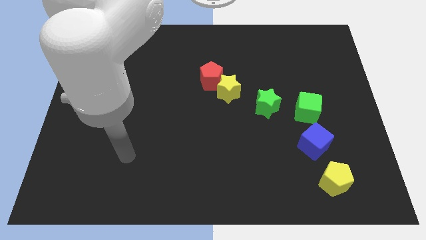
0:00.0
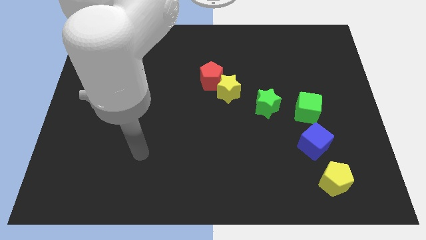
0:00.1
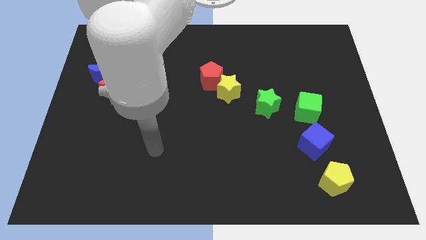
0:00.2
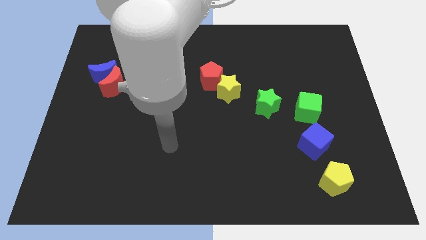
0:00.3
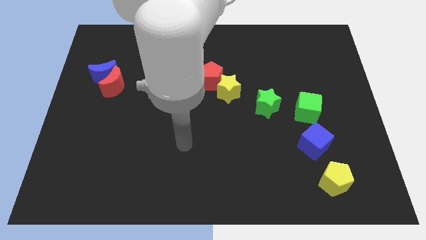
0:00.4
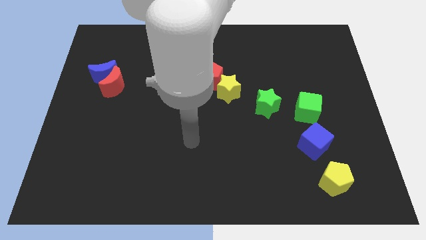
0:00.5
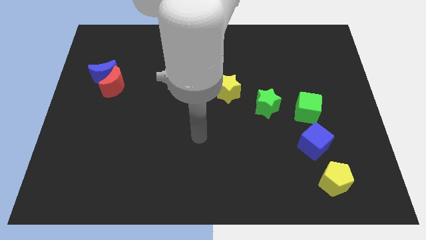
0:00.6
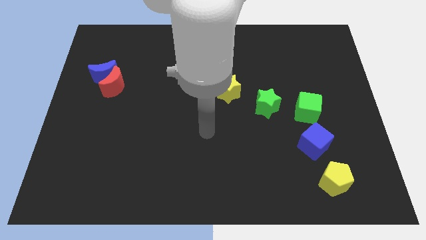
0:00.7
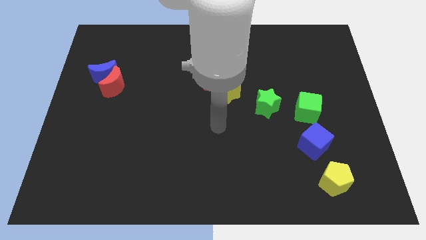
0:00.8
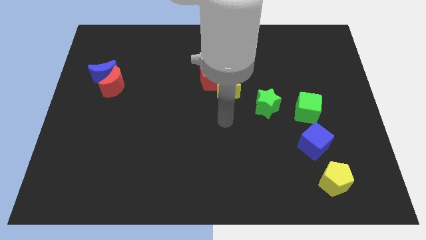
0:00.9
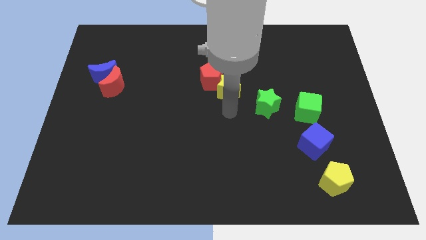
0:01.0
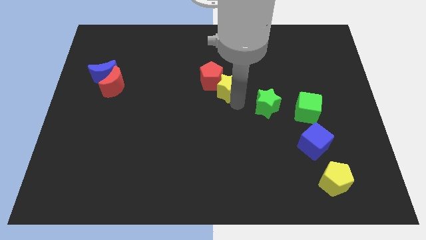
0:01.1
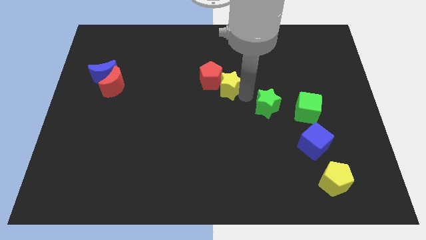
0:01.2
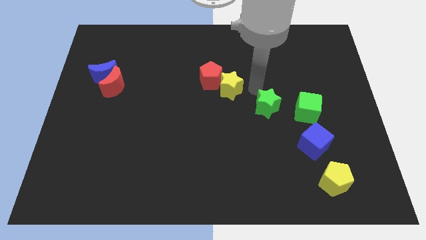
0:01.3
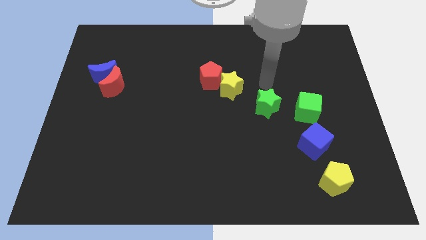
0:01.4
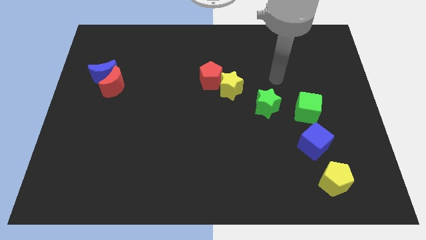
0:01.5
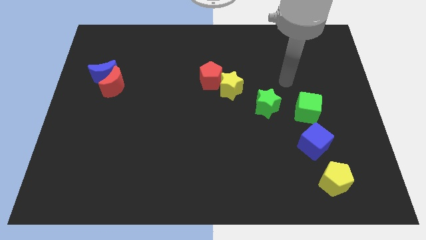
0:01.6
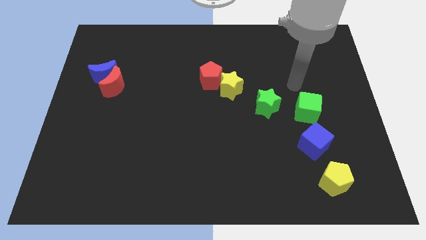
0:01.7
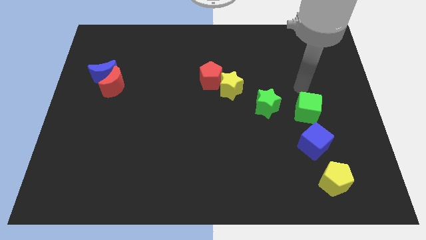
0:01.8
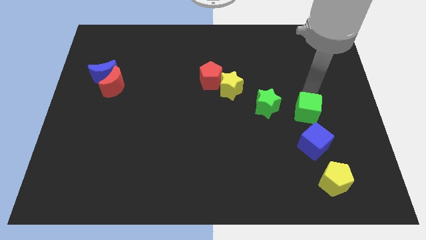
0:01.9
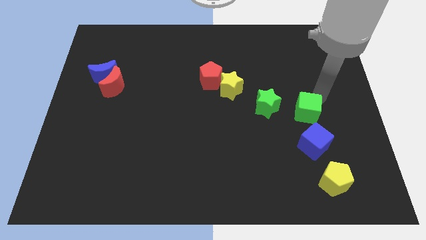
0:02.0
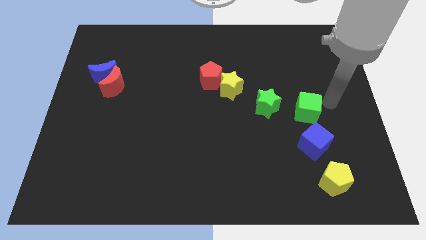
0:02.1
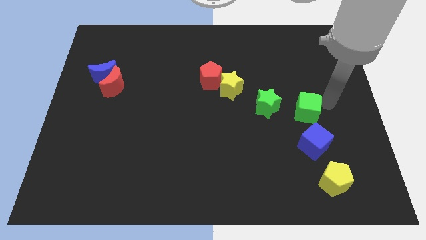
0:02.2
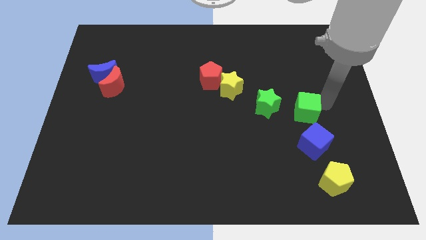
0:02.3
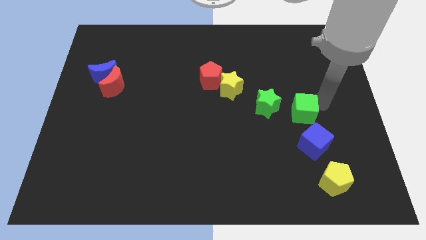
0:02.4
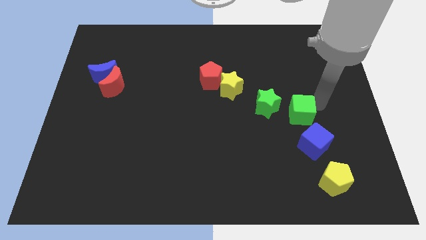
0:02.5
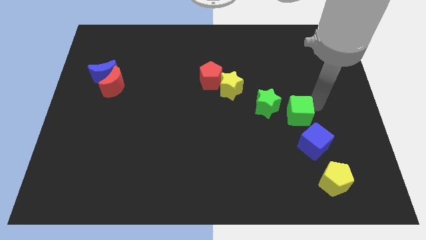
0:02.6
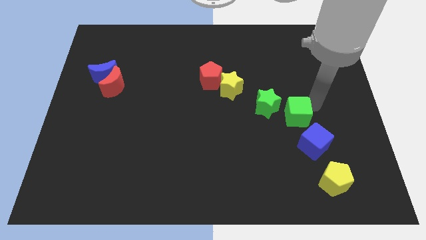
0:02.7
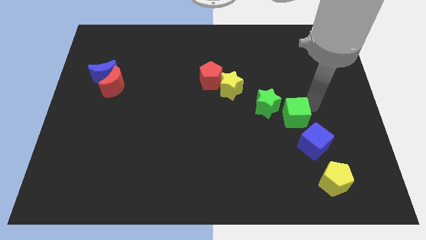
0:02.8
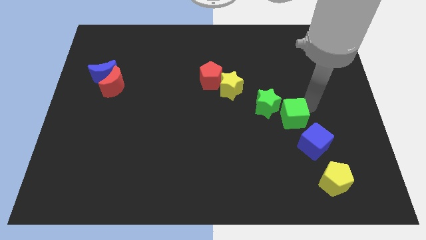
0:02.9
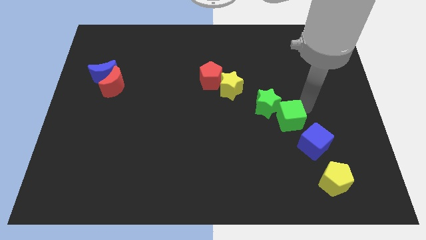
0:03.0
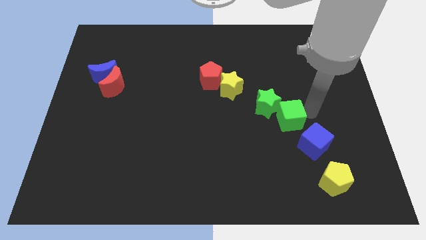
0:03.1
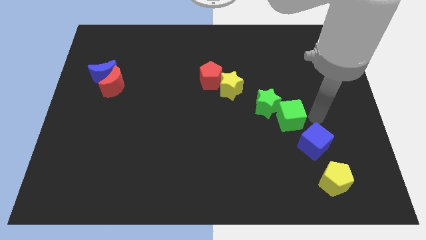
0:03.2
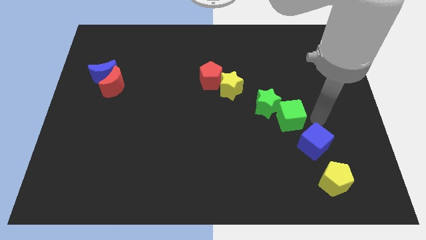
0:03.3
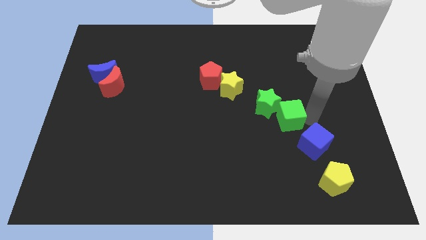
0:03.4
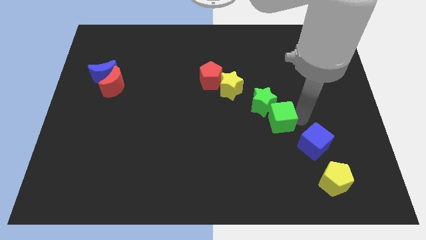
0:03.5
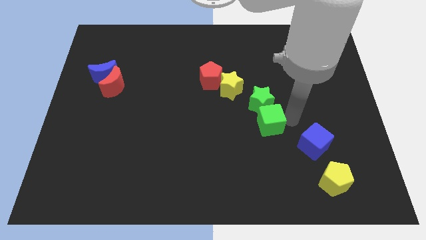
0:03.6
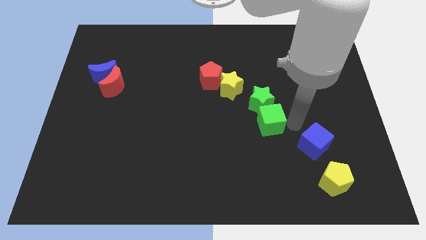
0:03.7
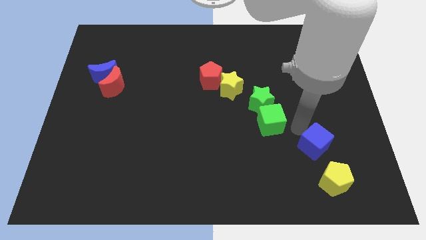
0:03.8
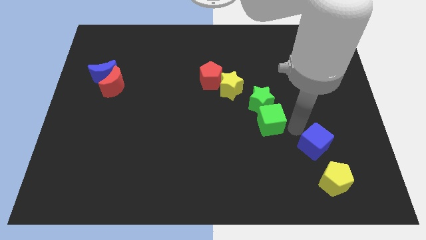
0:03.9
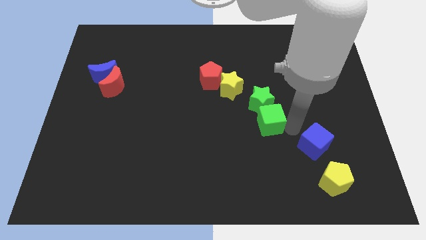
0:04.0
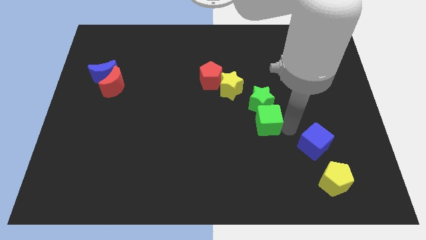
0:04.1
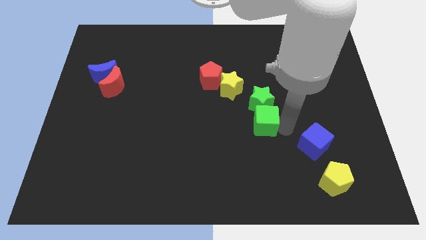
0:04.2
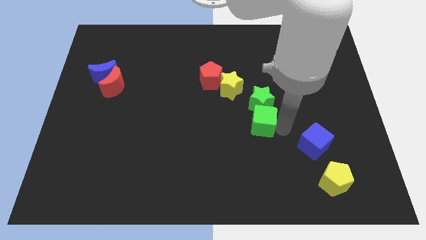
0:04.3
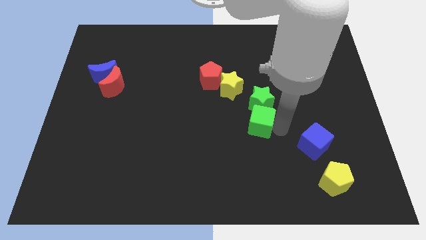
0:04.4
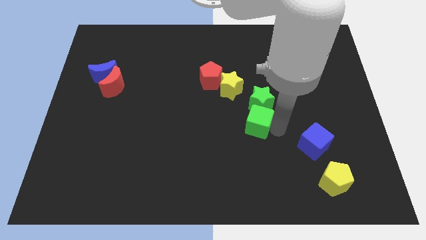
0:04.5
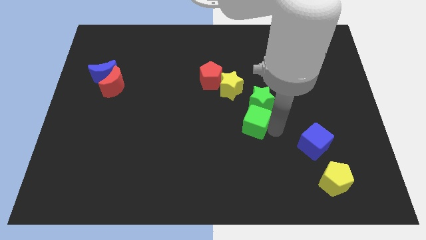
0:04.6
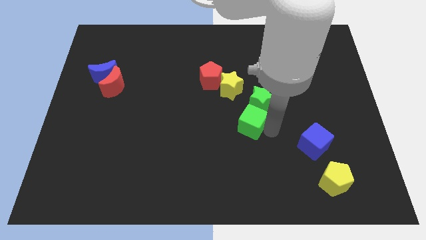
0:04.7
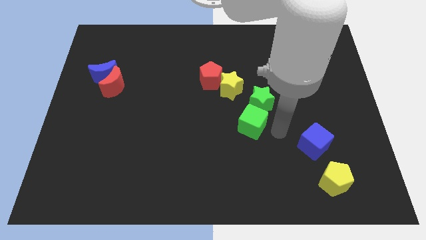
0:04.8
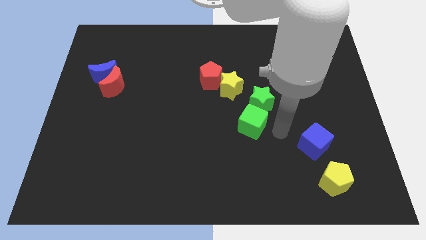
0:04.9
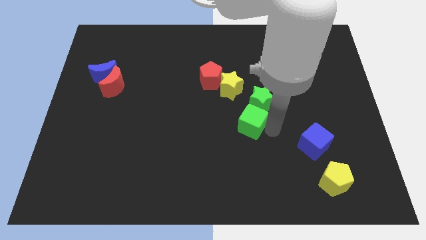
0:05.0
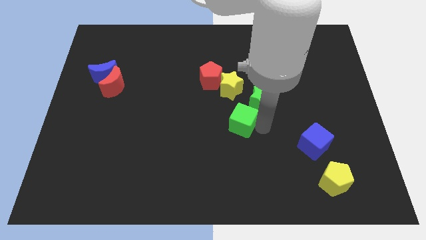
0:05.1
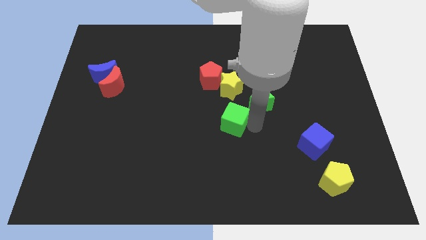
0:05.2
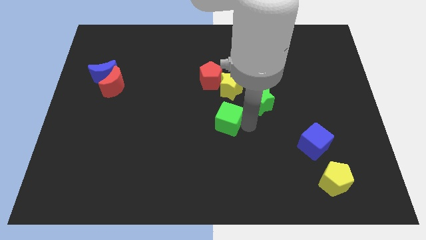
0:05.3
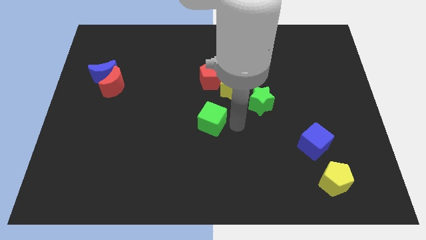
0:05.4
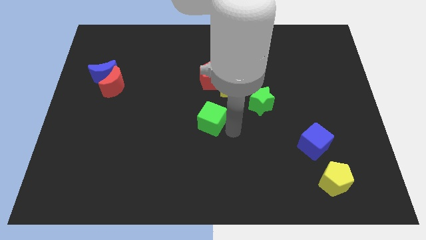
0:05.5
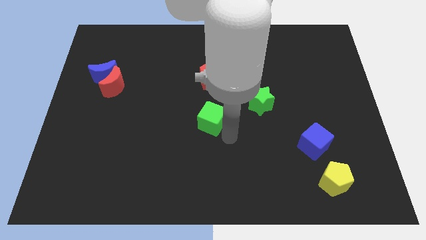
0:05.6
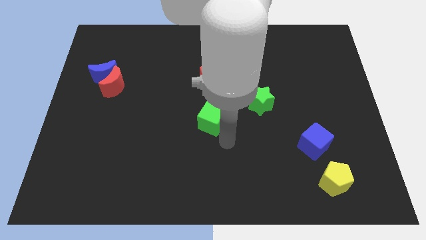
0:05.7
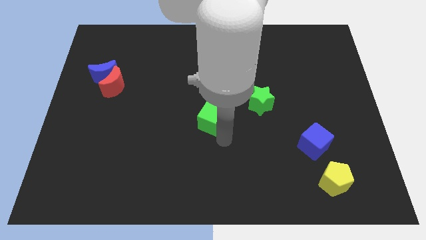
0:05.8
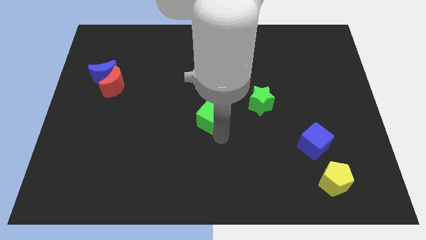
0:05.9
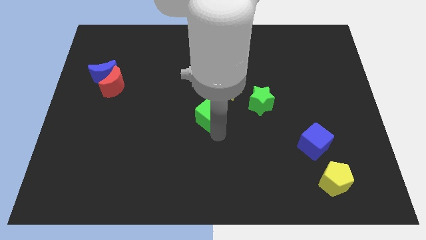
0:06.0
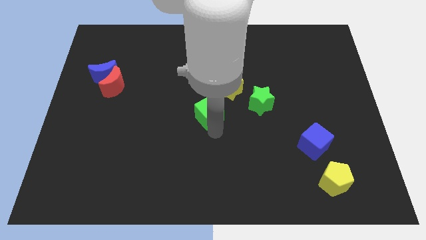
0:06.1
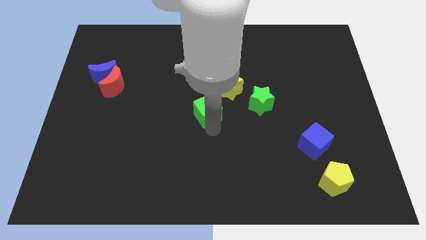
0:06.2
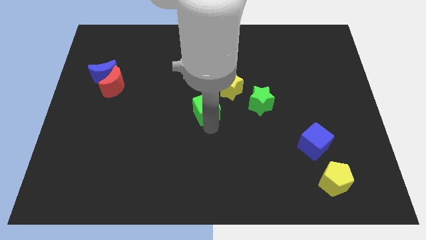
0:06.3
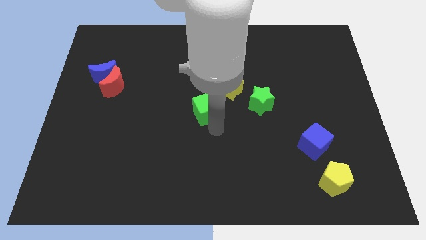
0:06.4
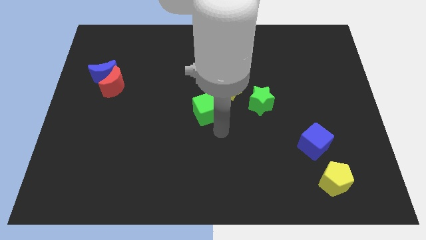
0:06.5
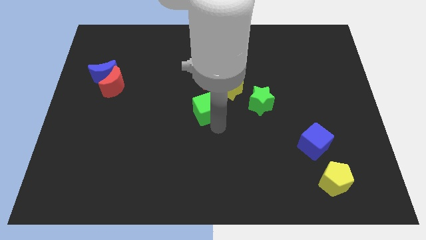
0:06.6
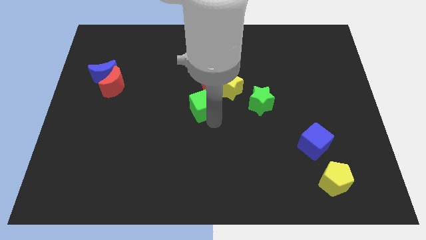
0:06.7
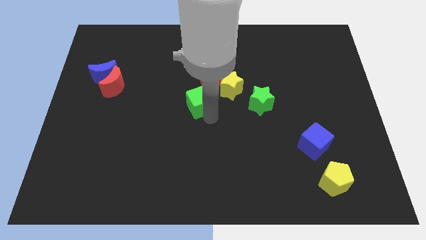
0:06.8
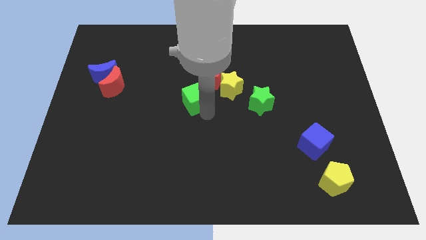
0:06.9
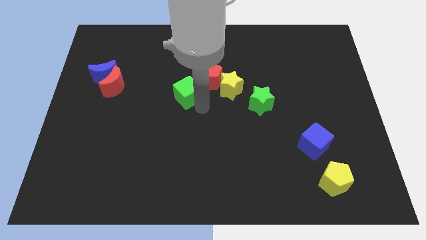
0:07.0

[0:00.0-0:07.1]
push the green cube to the left side of the red pentagon
